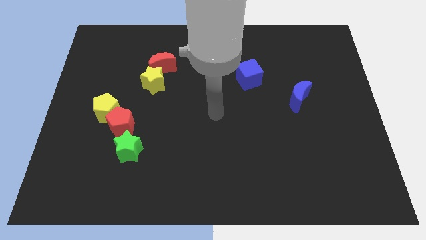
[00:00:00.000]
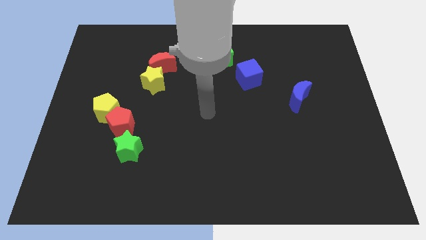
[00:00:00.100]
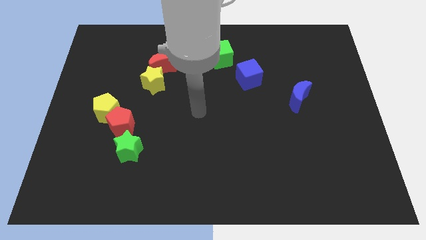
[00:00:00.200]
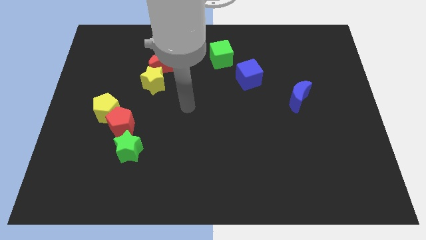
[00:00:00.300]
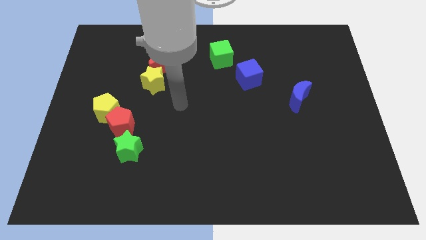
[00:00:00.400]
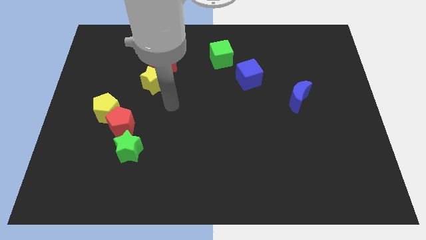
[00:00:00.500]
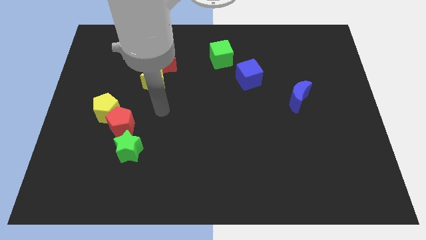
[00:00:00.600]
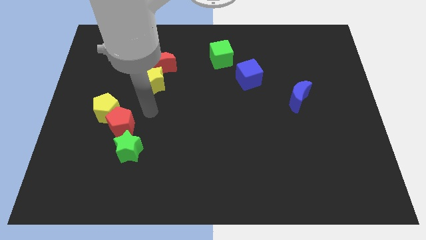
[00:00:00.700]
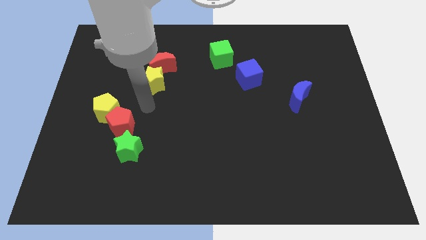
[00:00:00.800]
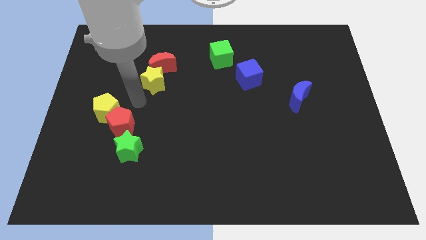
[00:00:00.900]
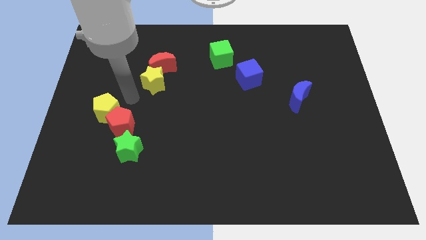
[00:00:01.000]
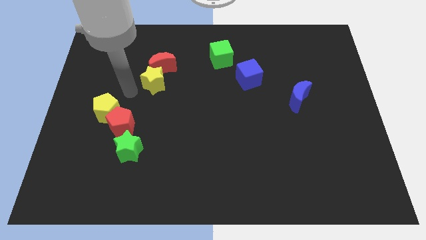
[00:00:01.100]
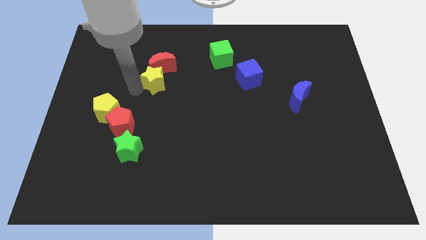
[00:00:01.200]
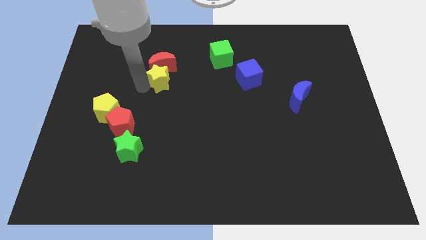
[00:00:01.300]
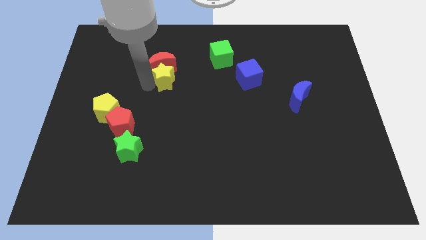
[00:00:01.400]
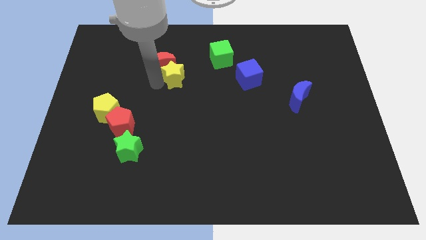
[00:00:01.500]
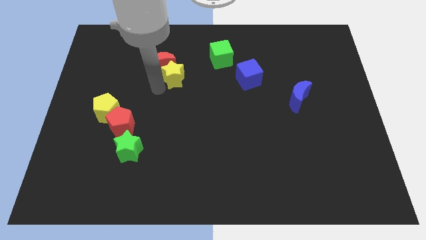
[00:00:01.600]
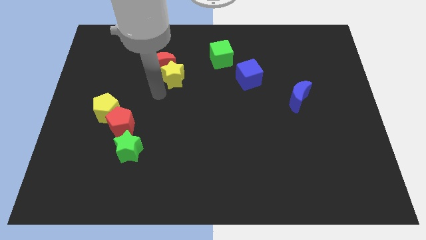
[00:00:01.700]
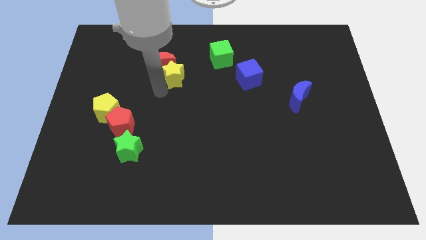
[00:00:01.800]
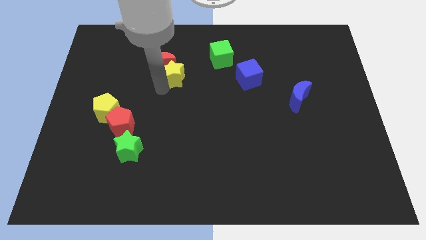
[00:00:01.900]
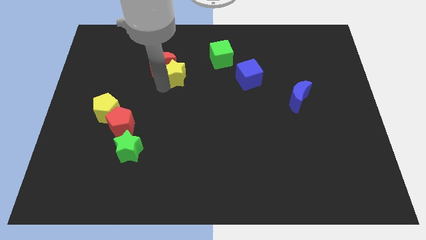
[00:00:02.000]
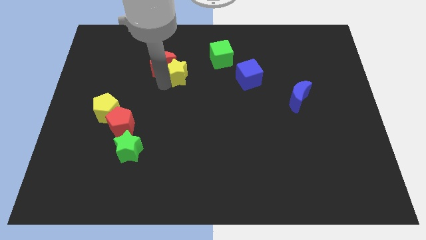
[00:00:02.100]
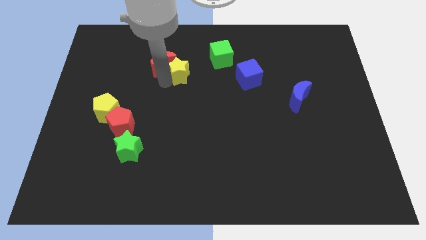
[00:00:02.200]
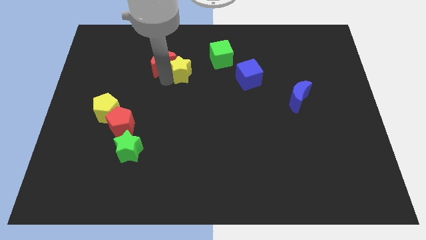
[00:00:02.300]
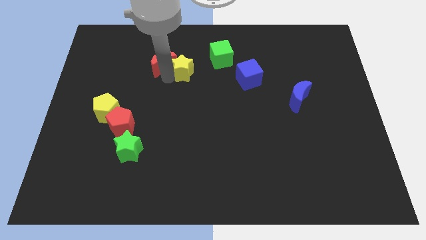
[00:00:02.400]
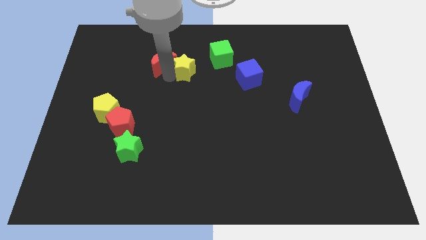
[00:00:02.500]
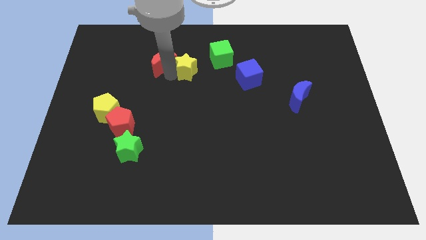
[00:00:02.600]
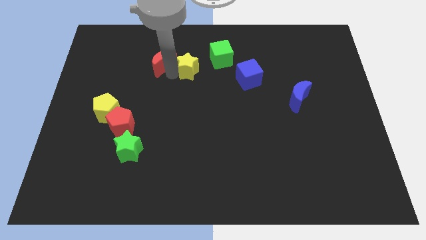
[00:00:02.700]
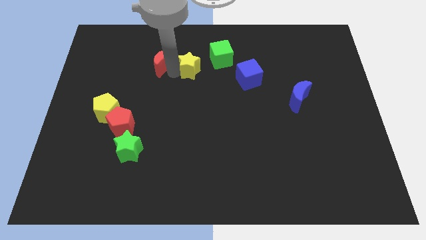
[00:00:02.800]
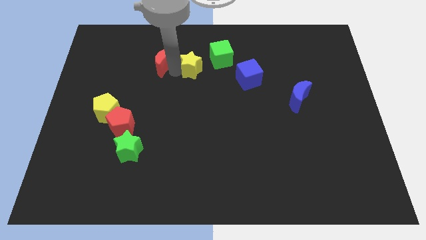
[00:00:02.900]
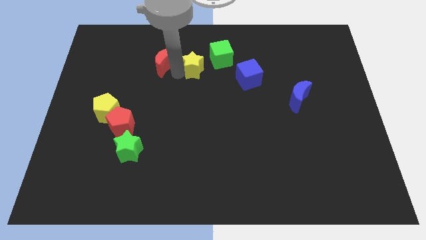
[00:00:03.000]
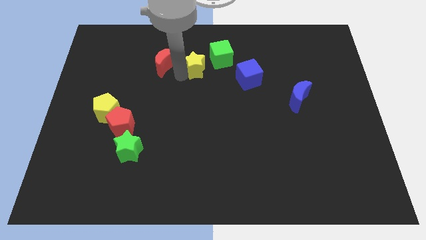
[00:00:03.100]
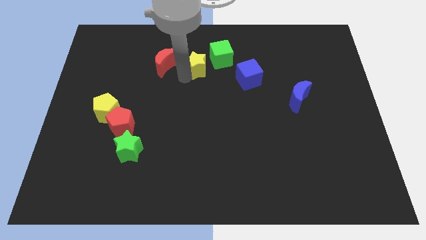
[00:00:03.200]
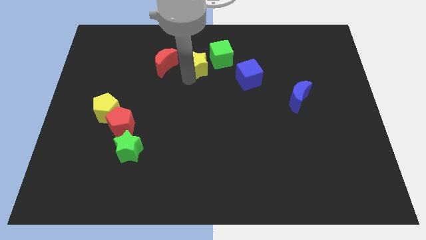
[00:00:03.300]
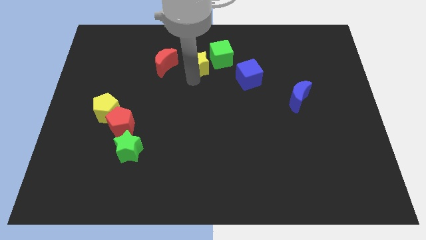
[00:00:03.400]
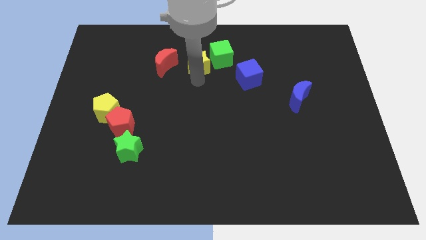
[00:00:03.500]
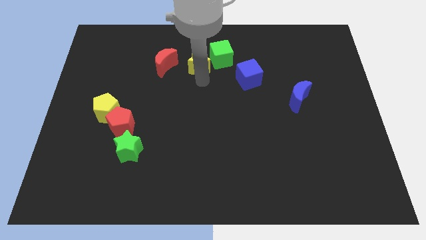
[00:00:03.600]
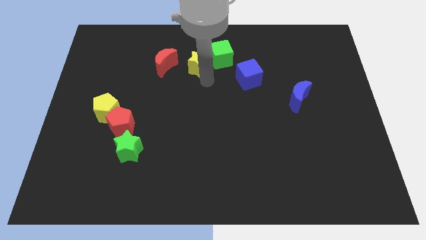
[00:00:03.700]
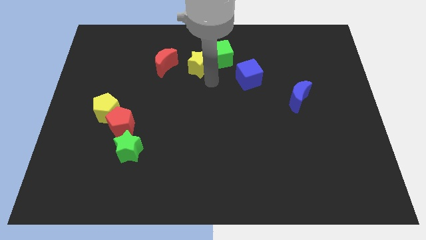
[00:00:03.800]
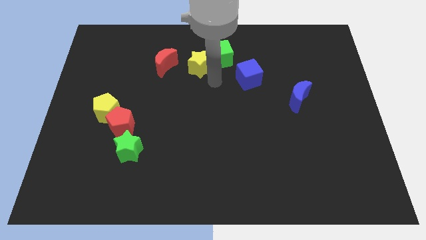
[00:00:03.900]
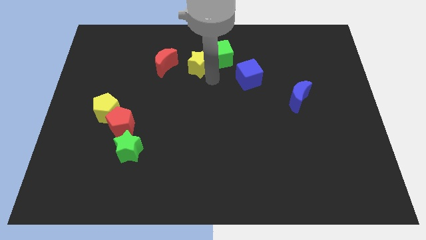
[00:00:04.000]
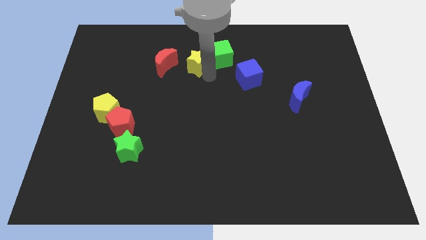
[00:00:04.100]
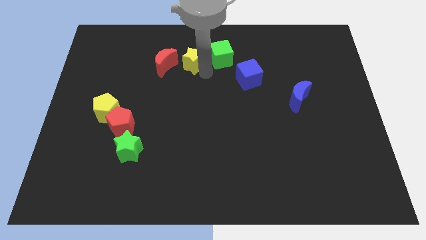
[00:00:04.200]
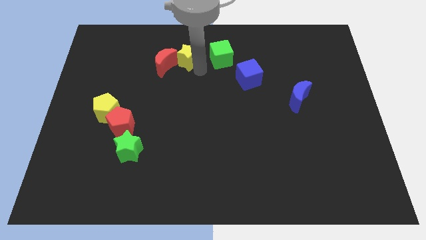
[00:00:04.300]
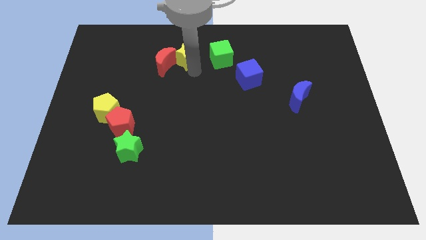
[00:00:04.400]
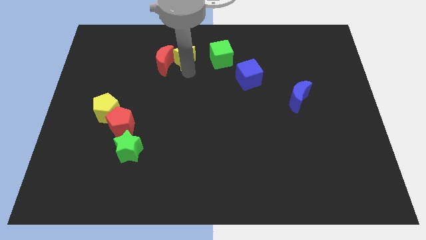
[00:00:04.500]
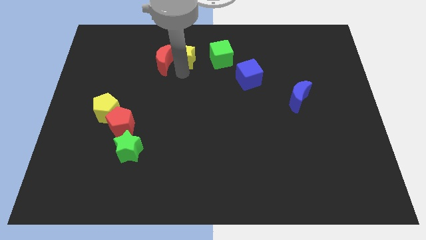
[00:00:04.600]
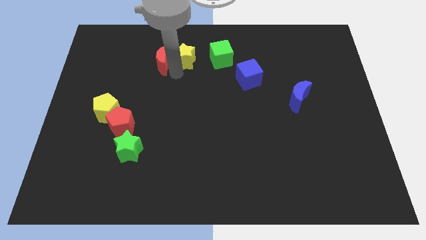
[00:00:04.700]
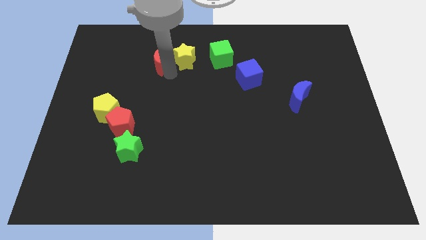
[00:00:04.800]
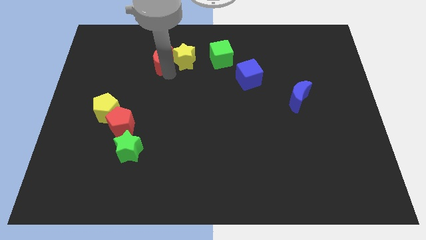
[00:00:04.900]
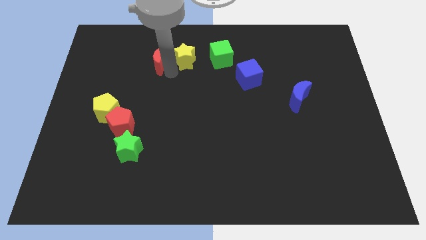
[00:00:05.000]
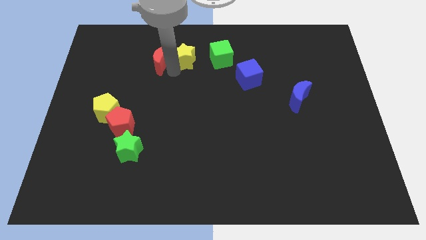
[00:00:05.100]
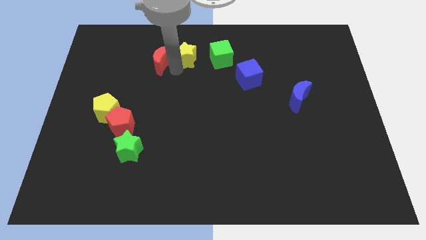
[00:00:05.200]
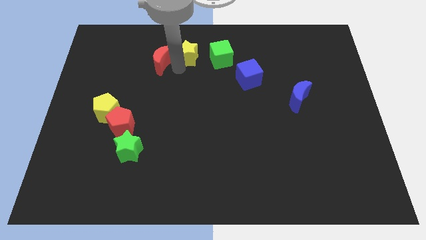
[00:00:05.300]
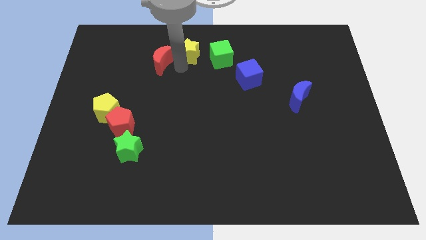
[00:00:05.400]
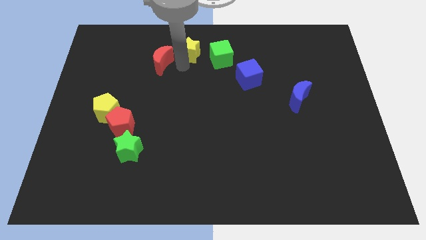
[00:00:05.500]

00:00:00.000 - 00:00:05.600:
push the yellow star to the towards your base

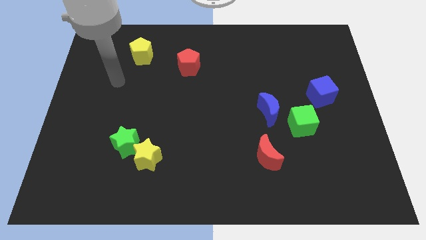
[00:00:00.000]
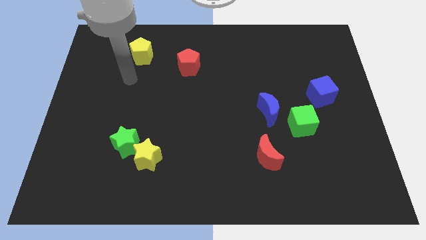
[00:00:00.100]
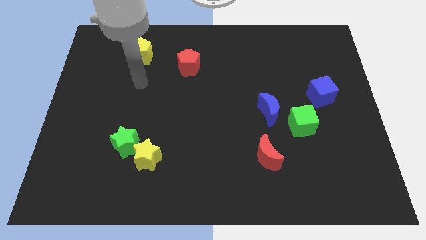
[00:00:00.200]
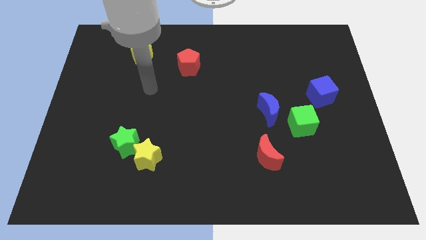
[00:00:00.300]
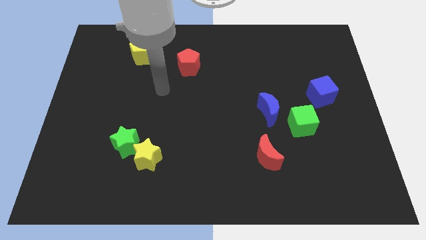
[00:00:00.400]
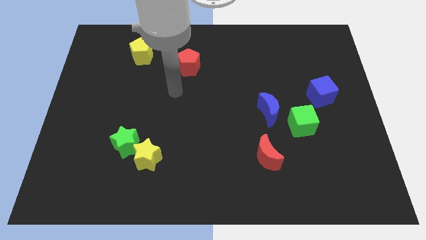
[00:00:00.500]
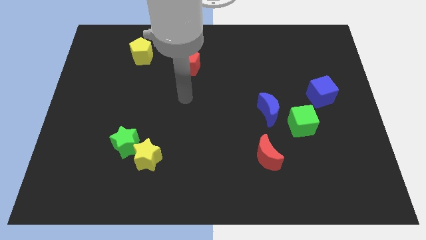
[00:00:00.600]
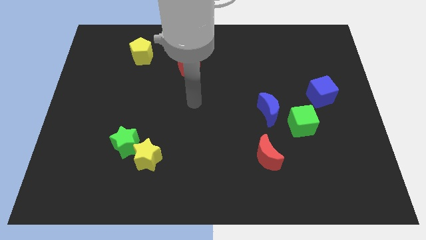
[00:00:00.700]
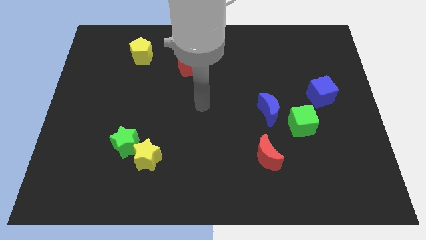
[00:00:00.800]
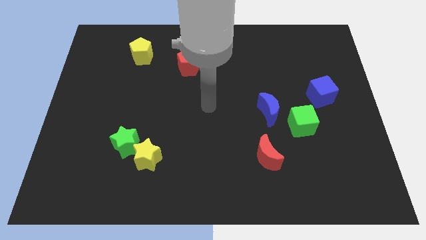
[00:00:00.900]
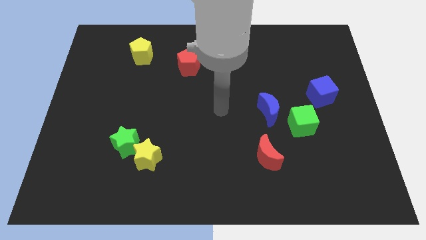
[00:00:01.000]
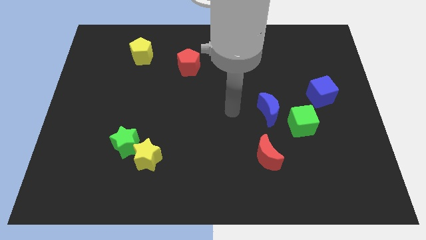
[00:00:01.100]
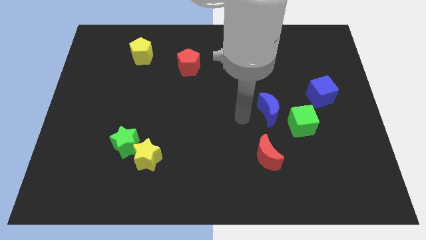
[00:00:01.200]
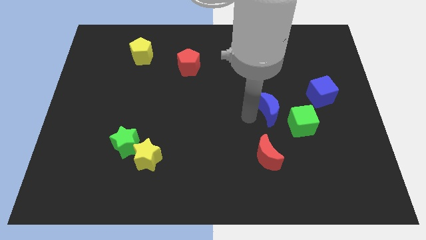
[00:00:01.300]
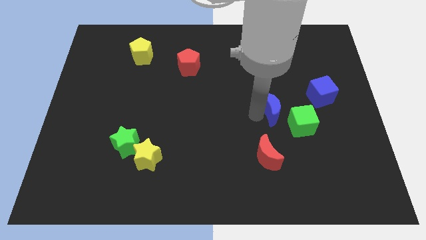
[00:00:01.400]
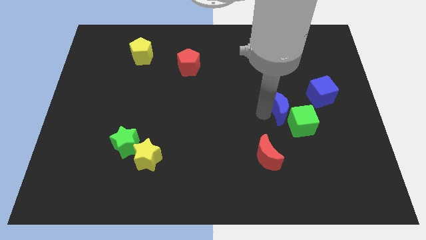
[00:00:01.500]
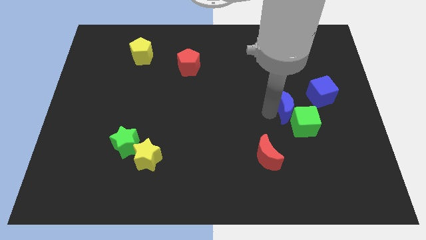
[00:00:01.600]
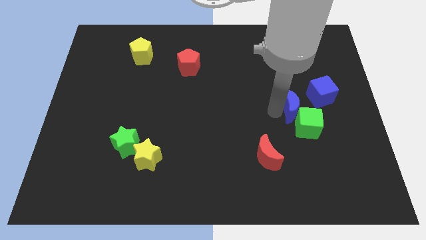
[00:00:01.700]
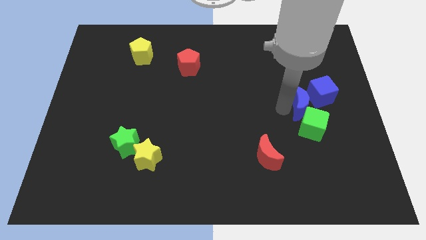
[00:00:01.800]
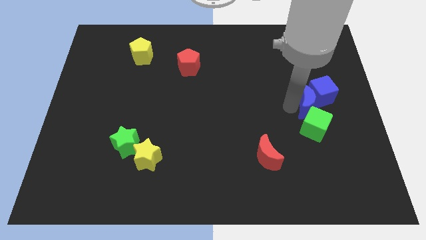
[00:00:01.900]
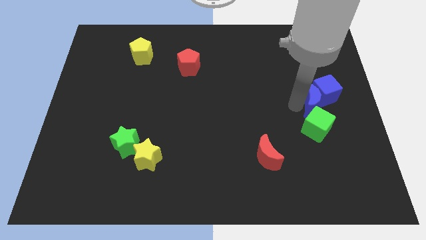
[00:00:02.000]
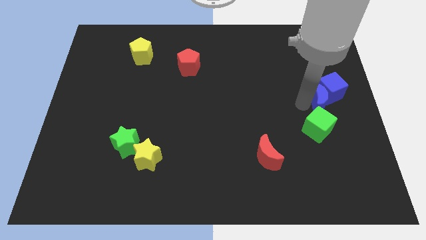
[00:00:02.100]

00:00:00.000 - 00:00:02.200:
push the blue moon to the center right
